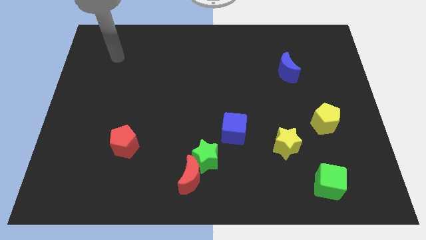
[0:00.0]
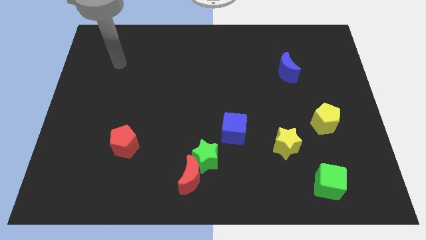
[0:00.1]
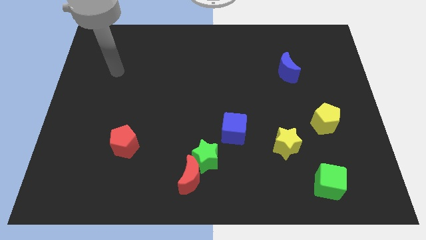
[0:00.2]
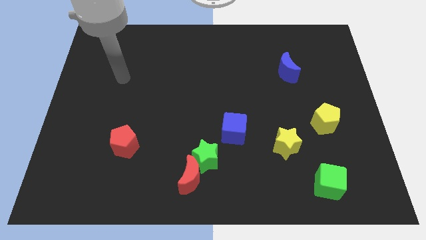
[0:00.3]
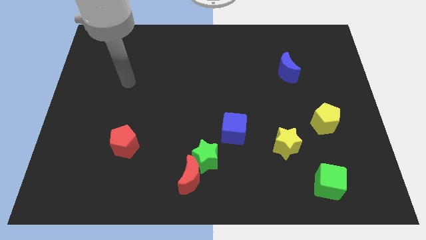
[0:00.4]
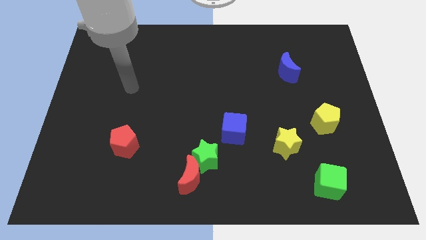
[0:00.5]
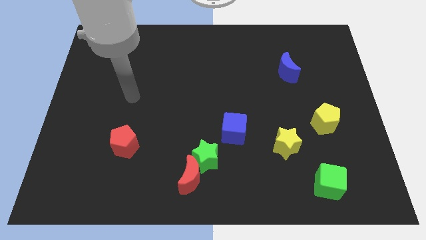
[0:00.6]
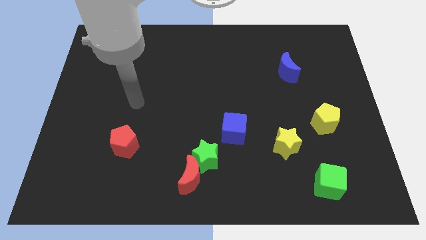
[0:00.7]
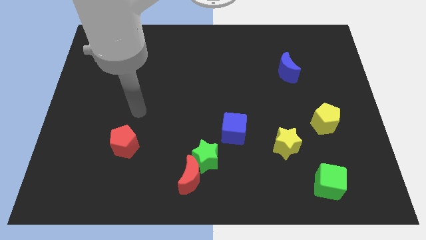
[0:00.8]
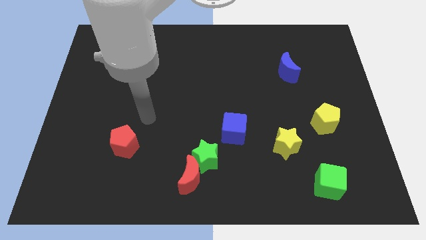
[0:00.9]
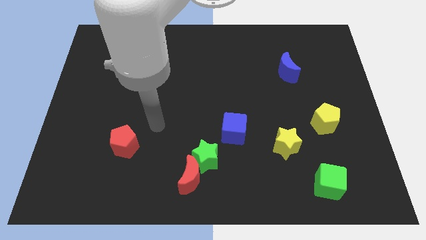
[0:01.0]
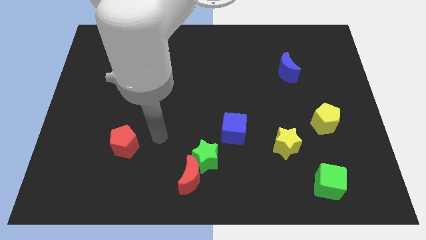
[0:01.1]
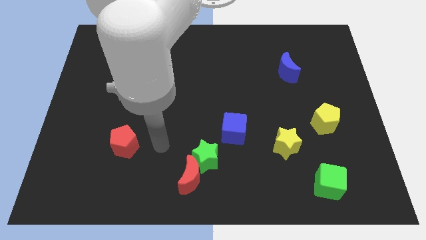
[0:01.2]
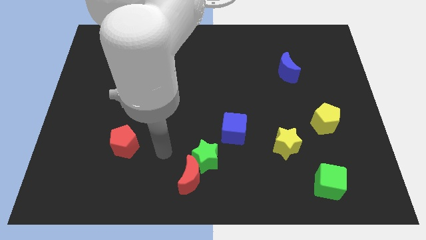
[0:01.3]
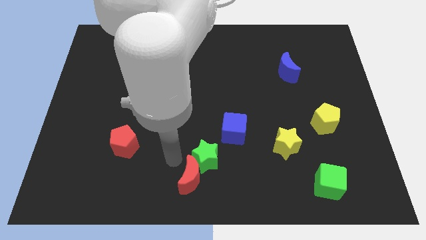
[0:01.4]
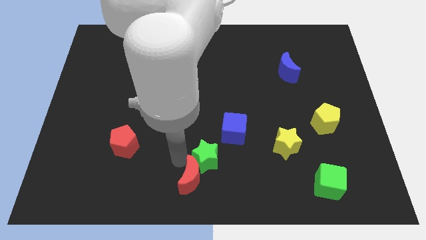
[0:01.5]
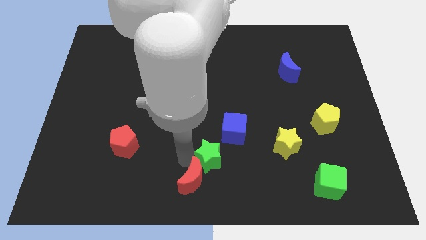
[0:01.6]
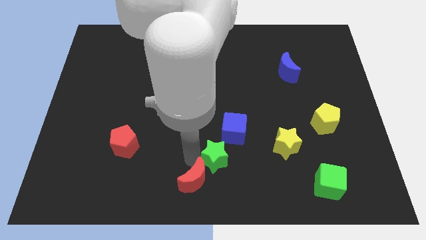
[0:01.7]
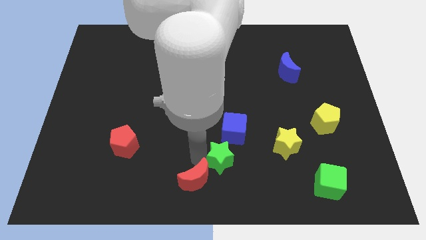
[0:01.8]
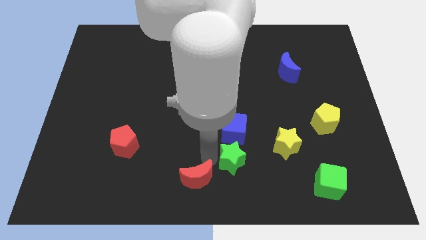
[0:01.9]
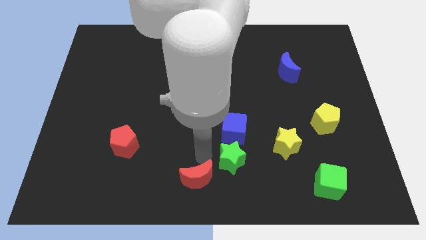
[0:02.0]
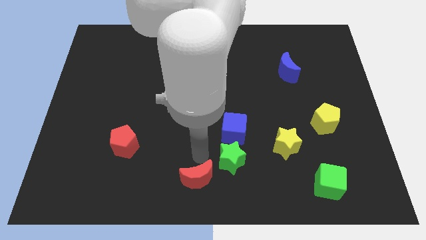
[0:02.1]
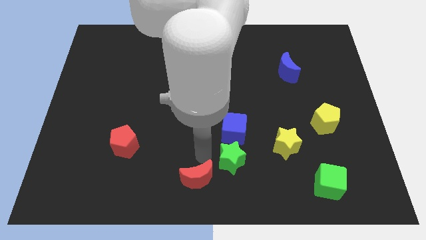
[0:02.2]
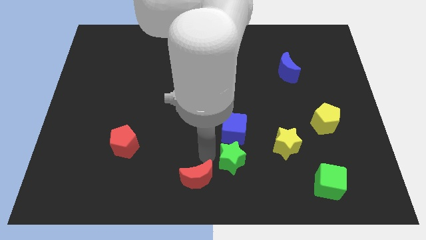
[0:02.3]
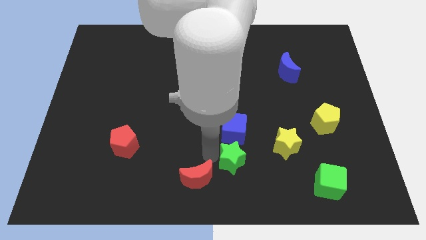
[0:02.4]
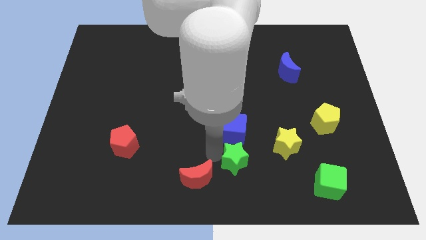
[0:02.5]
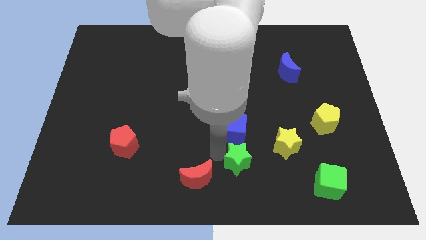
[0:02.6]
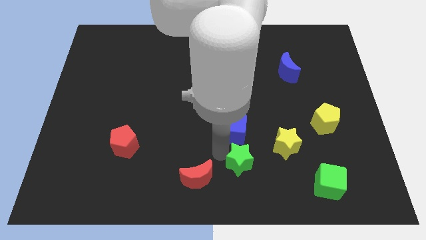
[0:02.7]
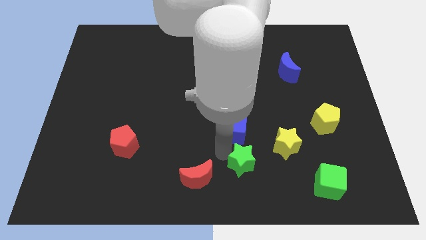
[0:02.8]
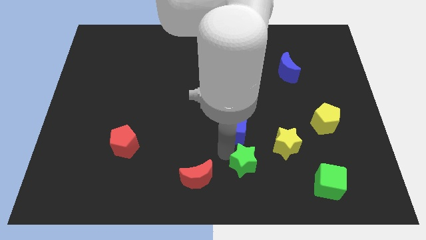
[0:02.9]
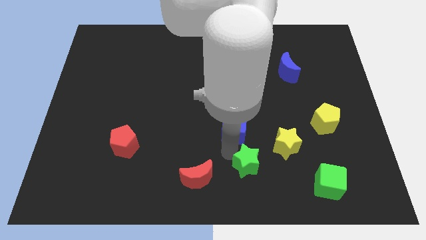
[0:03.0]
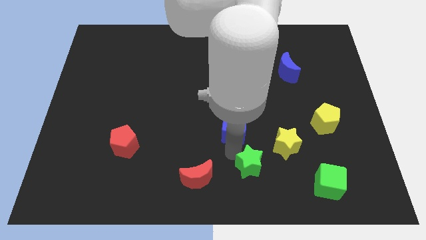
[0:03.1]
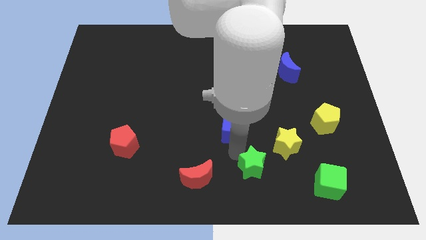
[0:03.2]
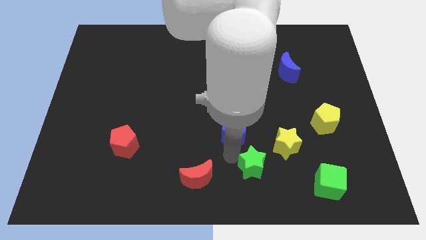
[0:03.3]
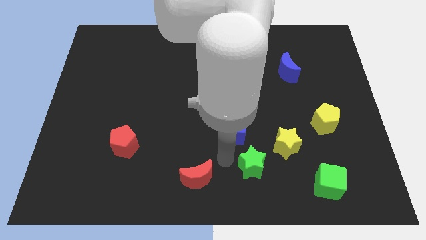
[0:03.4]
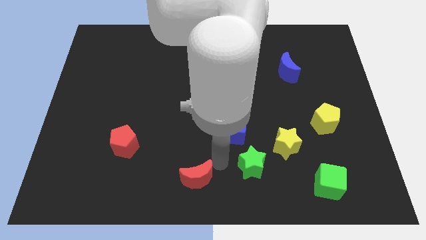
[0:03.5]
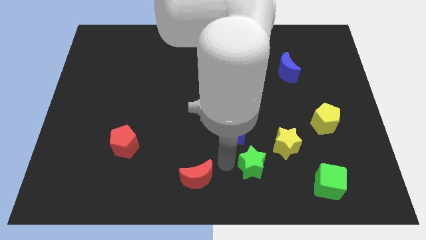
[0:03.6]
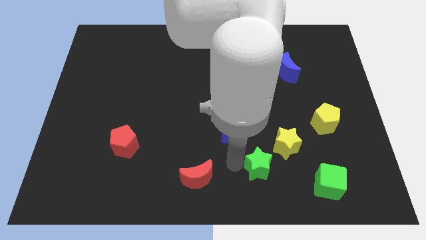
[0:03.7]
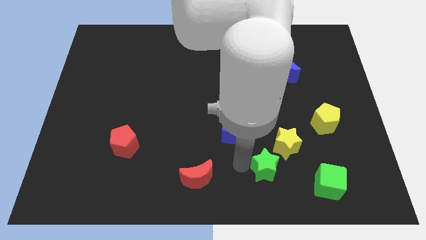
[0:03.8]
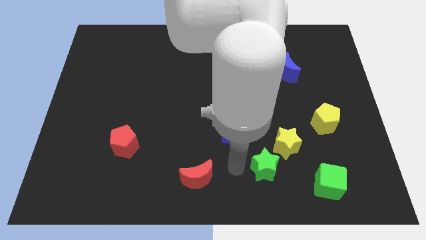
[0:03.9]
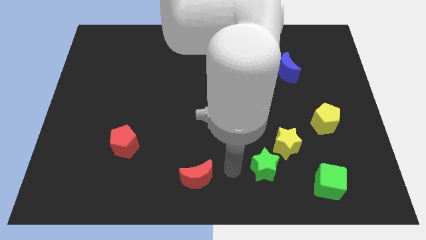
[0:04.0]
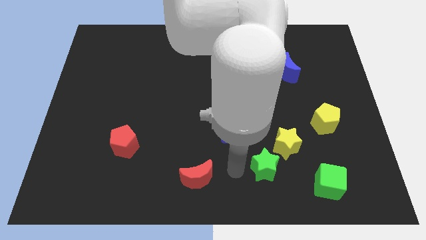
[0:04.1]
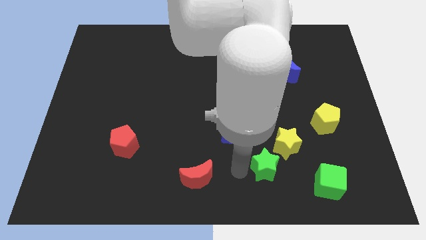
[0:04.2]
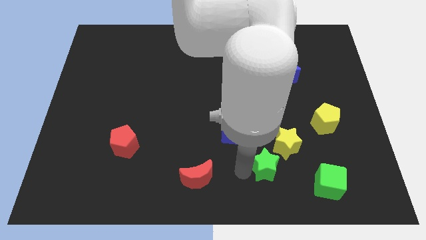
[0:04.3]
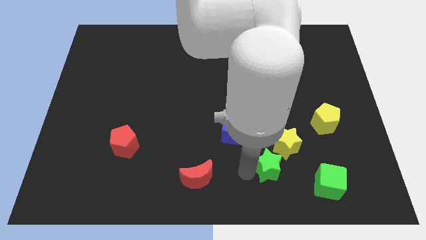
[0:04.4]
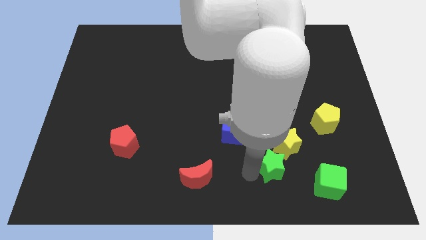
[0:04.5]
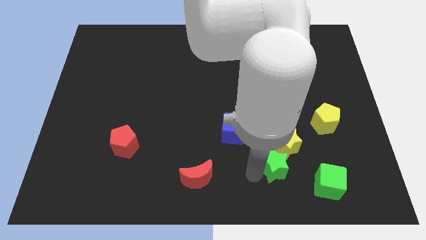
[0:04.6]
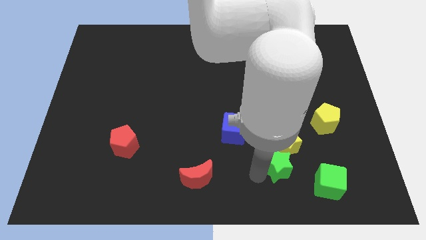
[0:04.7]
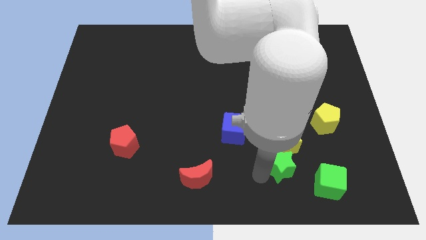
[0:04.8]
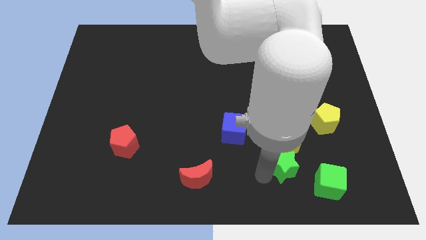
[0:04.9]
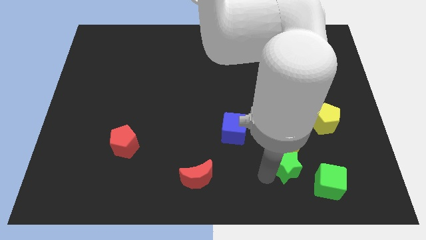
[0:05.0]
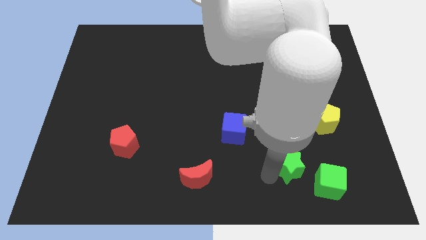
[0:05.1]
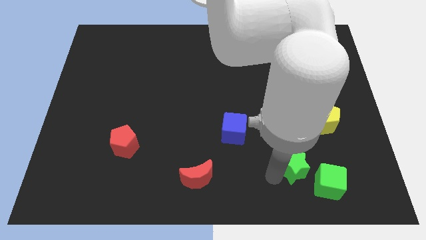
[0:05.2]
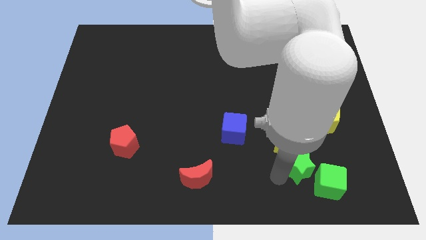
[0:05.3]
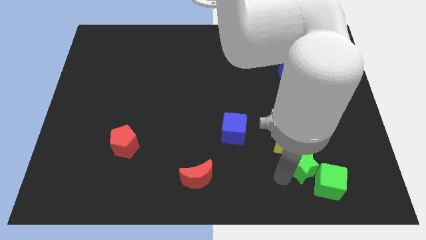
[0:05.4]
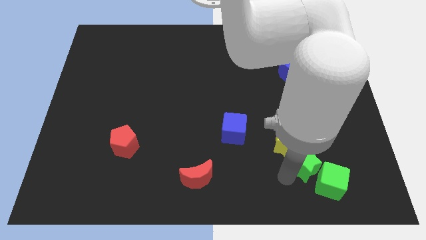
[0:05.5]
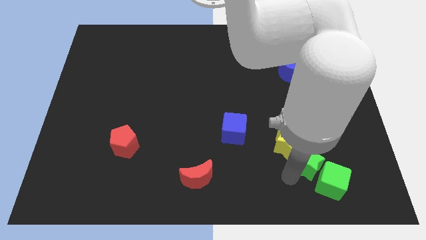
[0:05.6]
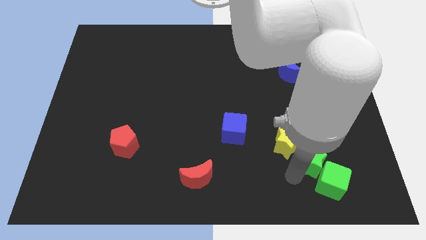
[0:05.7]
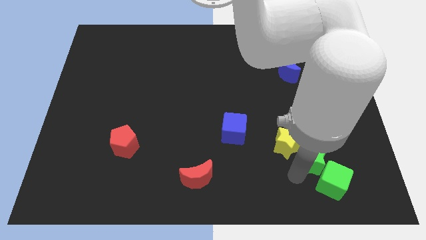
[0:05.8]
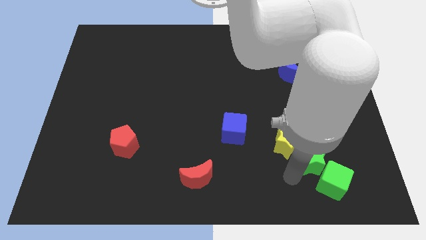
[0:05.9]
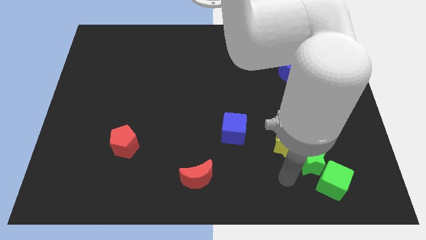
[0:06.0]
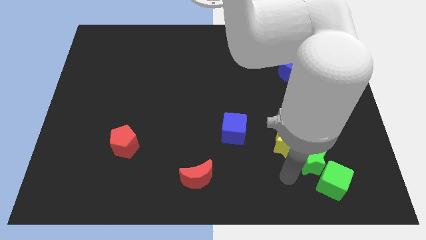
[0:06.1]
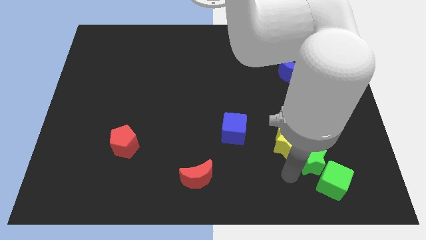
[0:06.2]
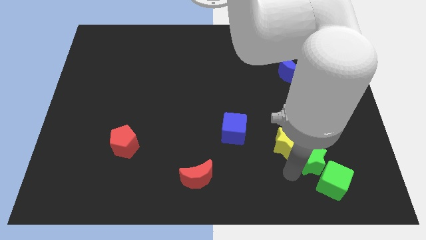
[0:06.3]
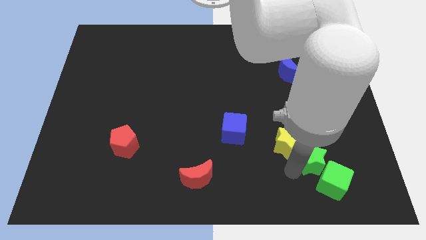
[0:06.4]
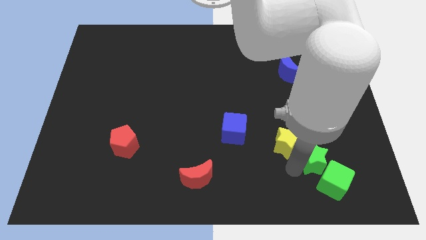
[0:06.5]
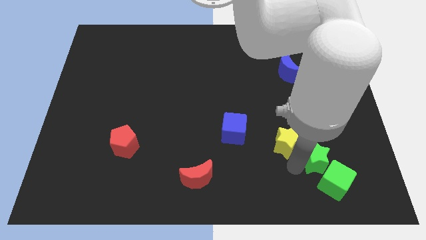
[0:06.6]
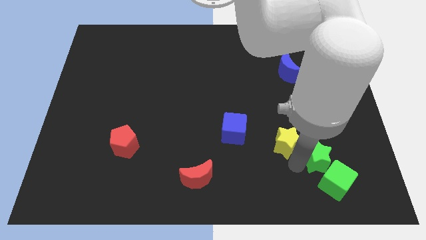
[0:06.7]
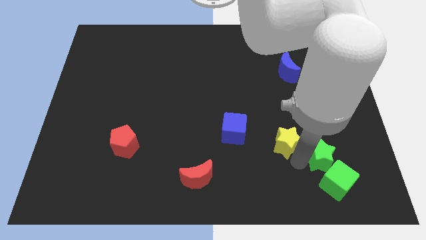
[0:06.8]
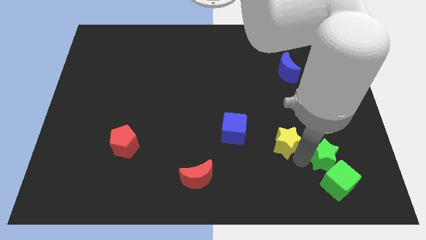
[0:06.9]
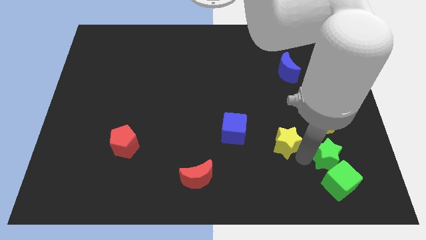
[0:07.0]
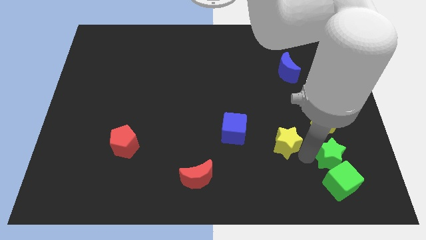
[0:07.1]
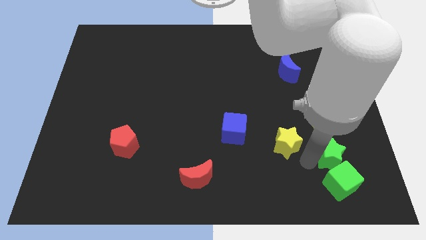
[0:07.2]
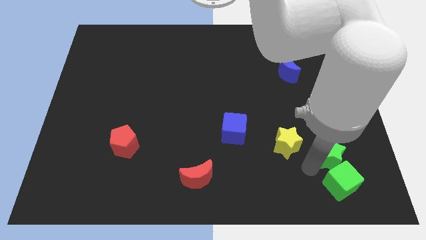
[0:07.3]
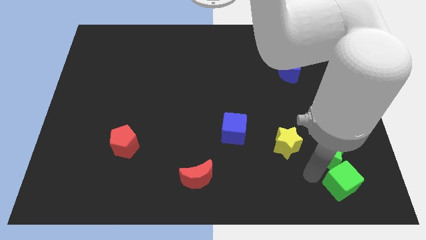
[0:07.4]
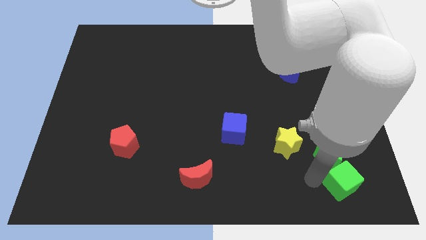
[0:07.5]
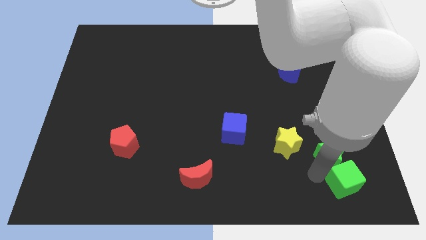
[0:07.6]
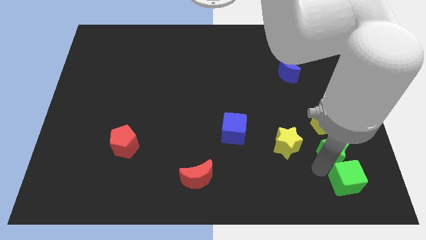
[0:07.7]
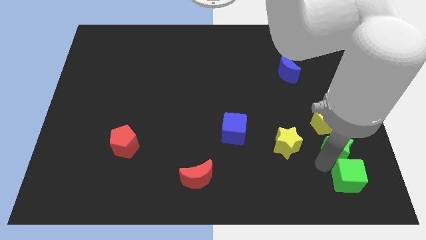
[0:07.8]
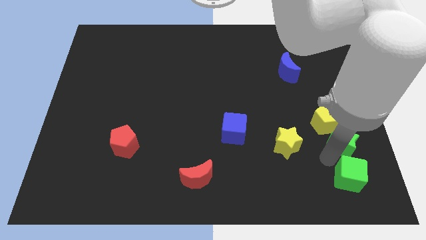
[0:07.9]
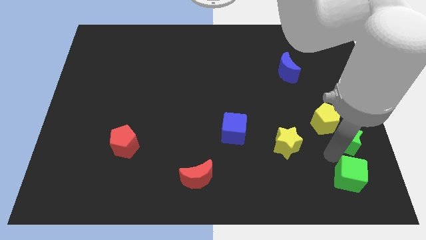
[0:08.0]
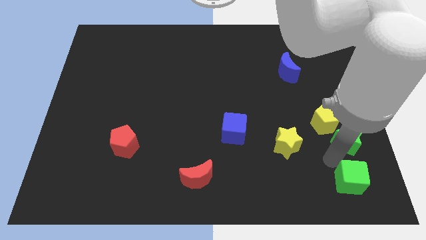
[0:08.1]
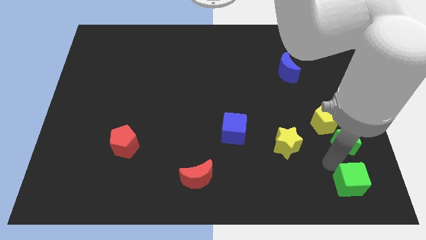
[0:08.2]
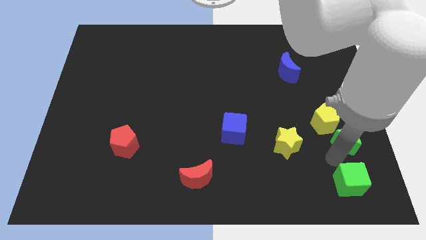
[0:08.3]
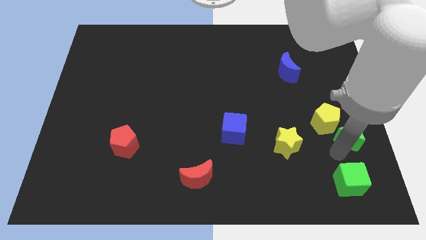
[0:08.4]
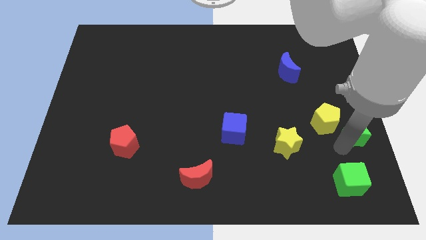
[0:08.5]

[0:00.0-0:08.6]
put the green star to the center right
